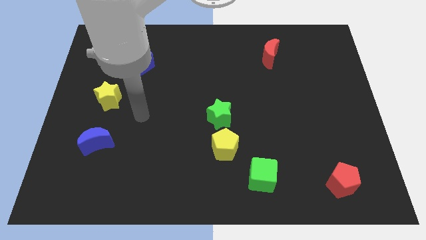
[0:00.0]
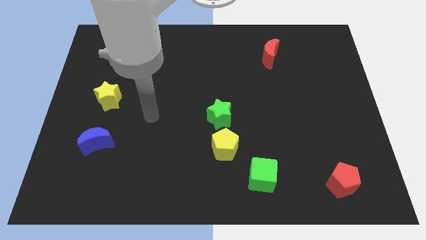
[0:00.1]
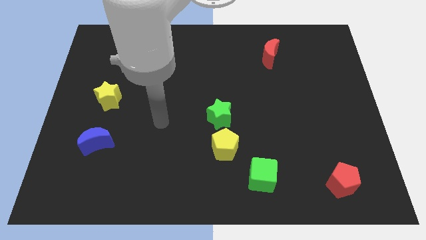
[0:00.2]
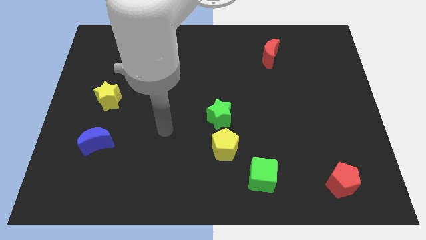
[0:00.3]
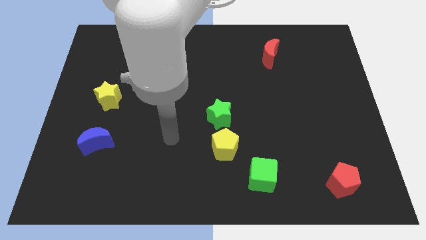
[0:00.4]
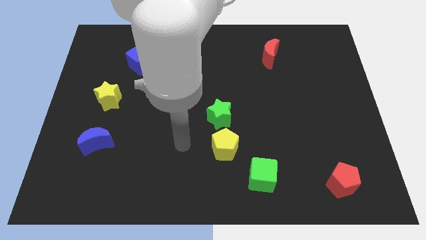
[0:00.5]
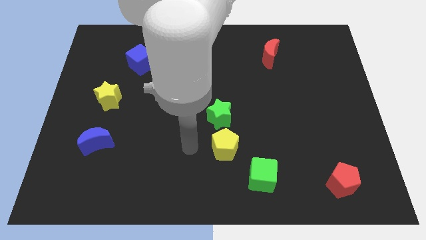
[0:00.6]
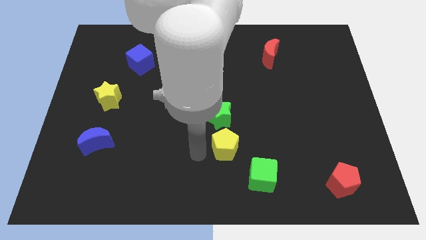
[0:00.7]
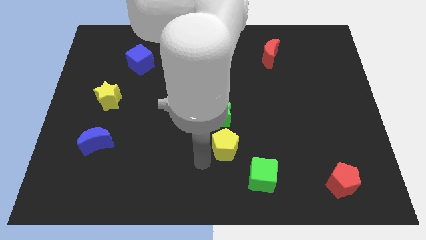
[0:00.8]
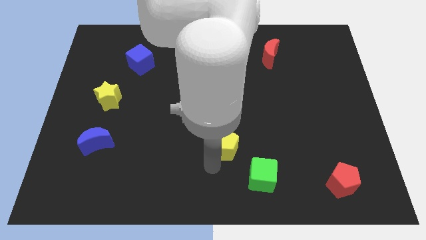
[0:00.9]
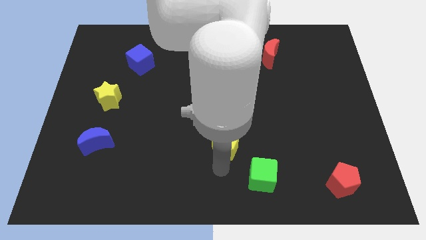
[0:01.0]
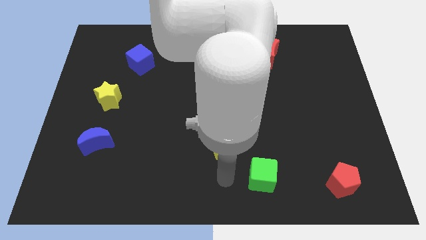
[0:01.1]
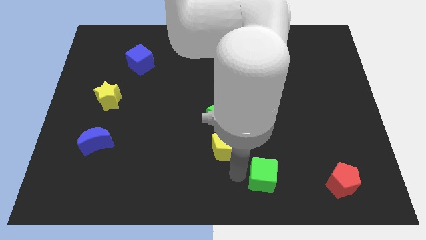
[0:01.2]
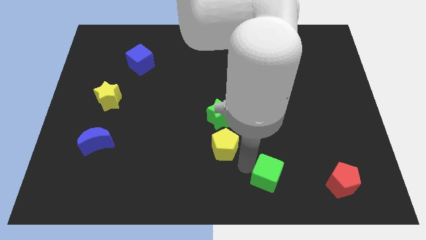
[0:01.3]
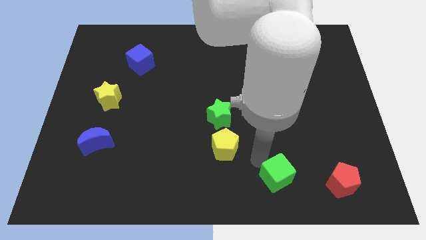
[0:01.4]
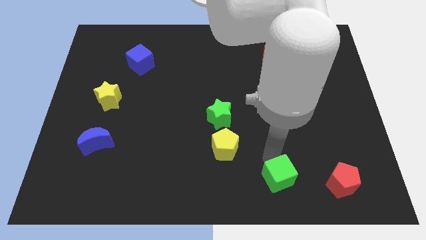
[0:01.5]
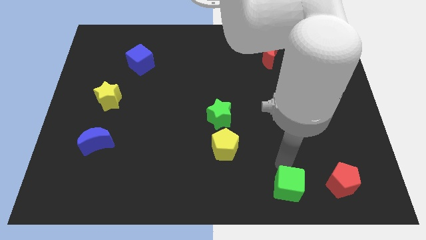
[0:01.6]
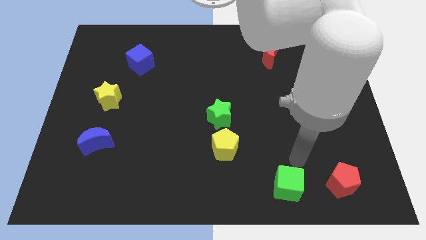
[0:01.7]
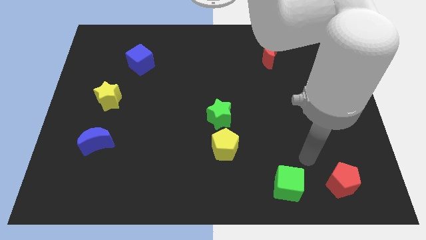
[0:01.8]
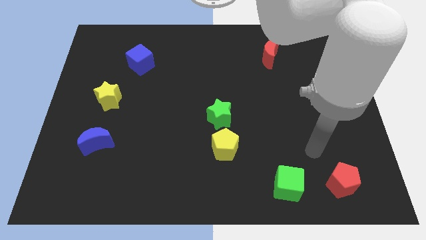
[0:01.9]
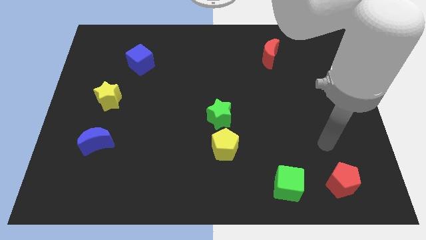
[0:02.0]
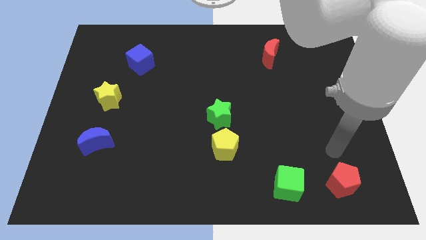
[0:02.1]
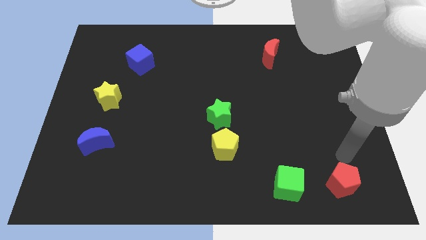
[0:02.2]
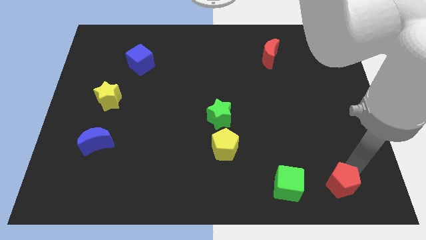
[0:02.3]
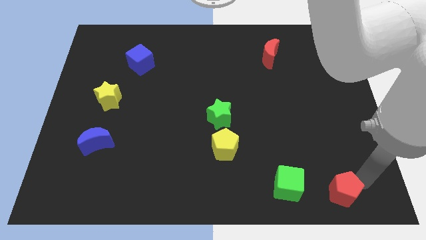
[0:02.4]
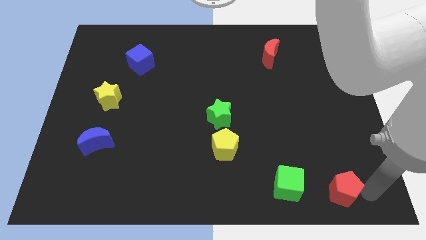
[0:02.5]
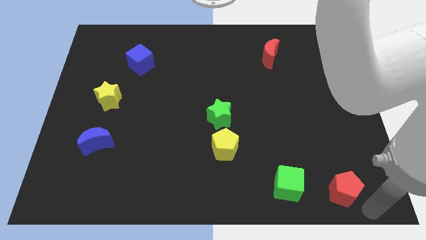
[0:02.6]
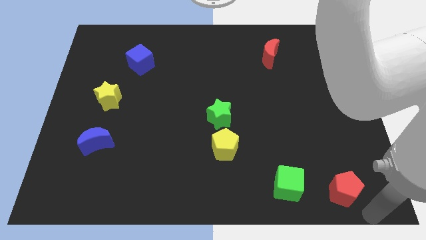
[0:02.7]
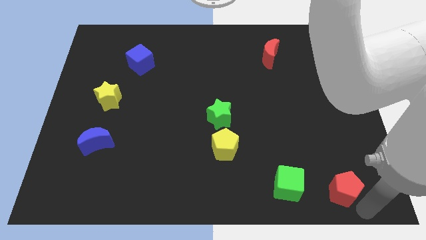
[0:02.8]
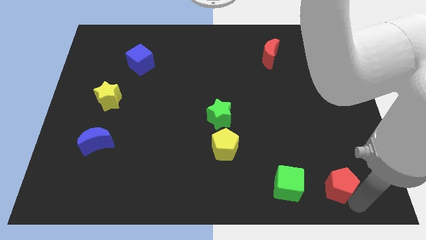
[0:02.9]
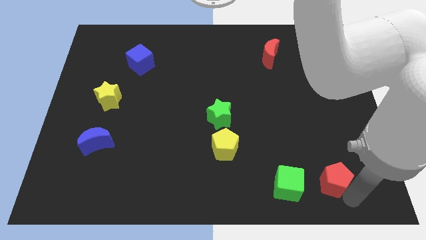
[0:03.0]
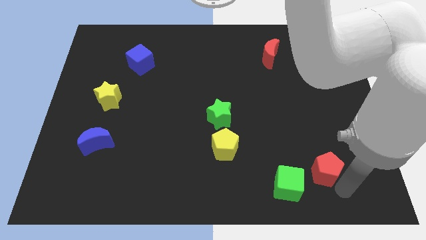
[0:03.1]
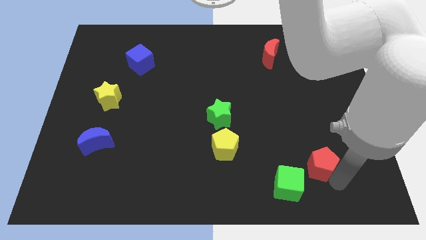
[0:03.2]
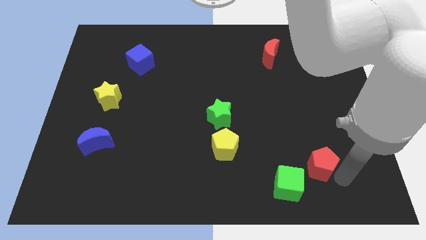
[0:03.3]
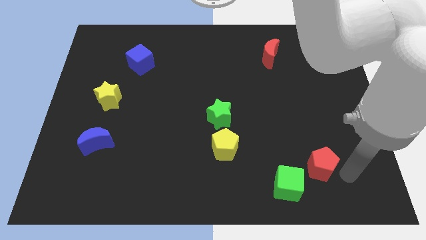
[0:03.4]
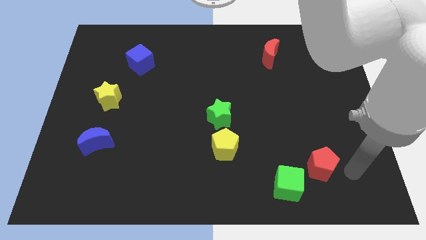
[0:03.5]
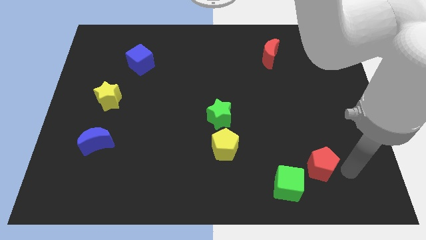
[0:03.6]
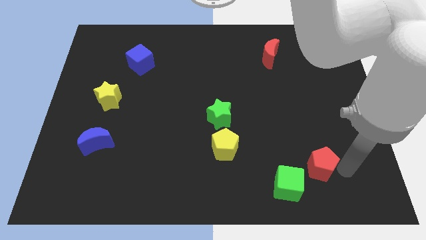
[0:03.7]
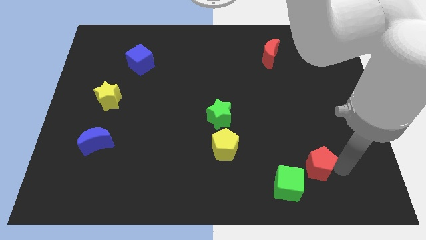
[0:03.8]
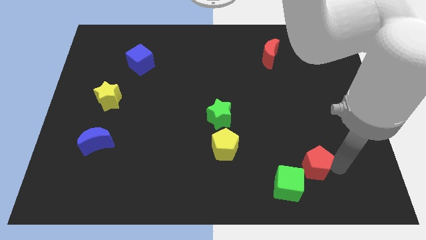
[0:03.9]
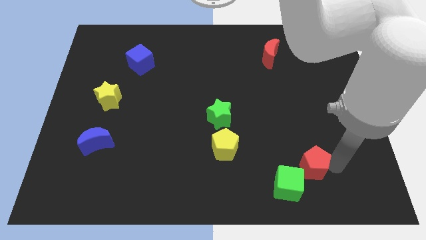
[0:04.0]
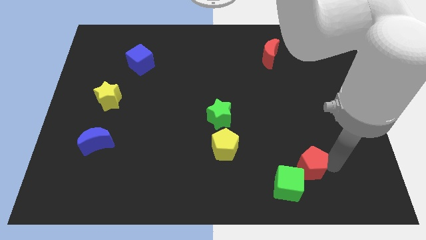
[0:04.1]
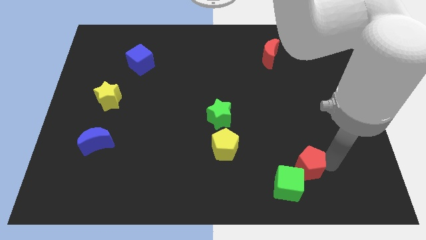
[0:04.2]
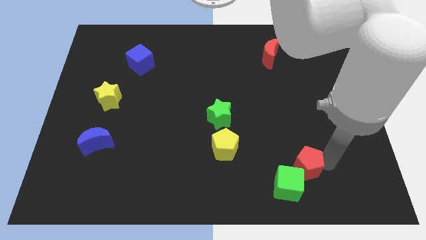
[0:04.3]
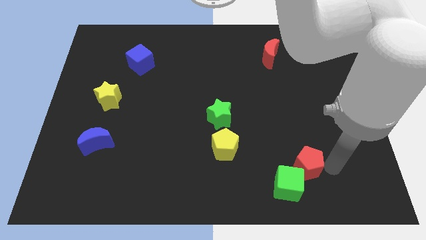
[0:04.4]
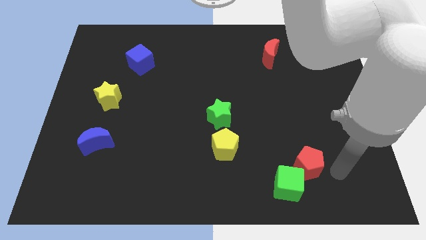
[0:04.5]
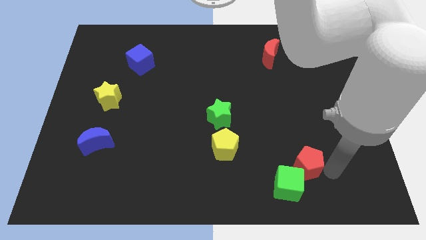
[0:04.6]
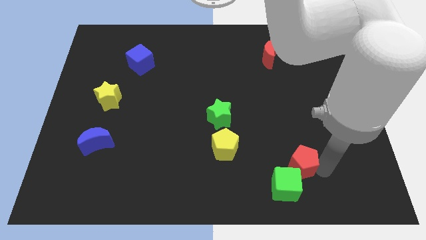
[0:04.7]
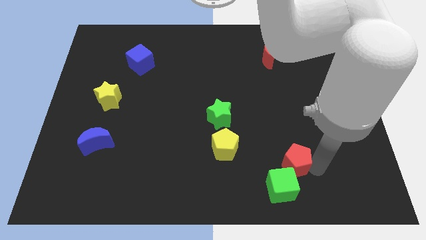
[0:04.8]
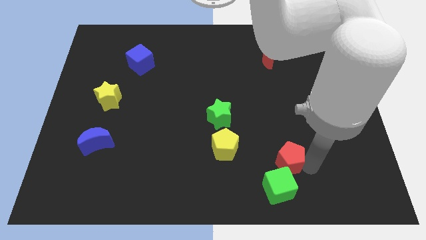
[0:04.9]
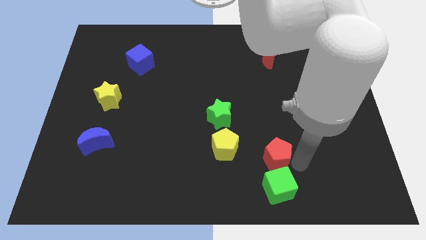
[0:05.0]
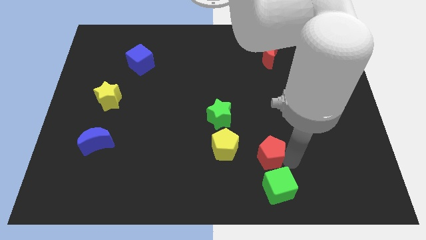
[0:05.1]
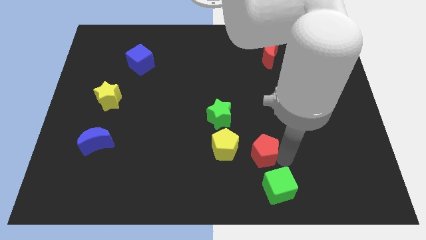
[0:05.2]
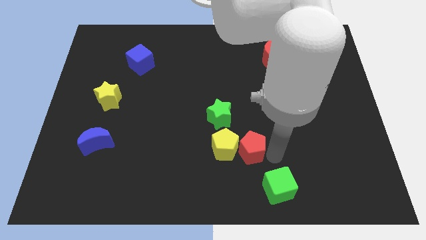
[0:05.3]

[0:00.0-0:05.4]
move the red pentagon to the yellow pentagon

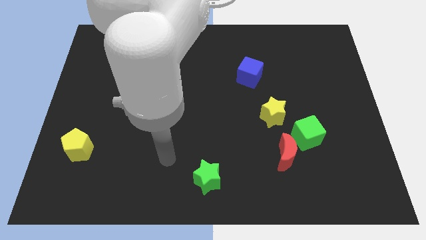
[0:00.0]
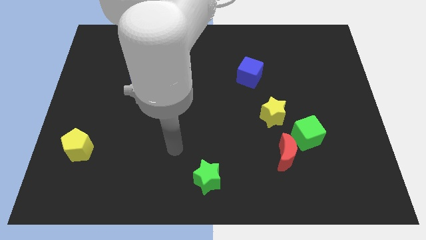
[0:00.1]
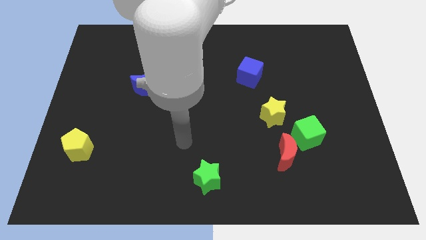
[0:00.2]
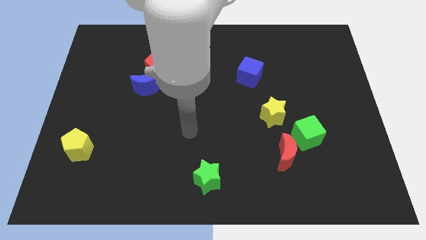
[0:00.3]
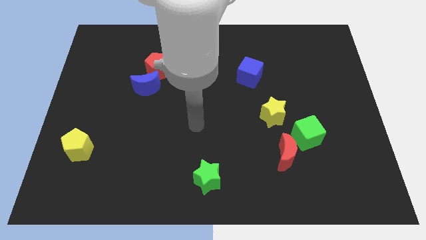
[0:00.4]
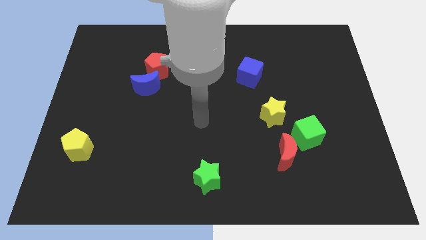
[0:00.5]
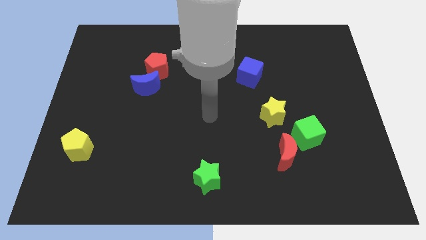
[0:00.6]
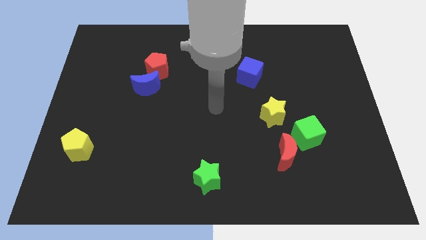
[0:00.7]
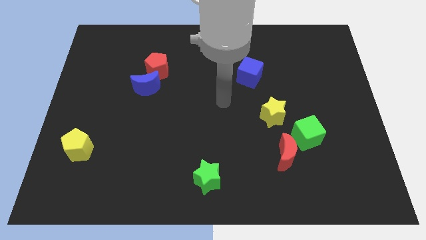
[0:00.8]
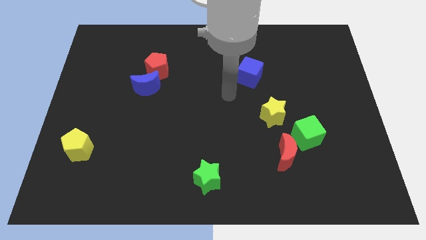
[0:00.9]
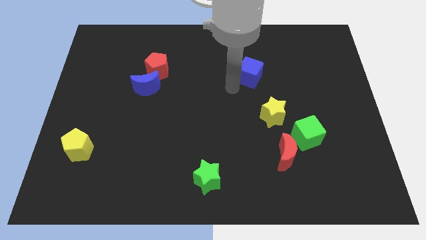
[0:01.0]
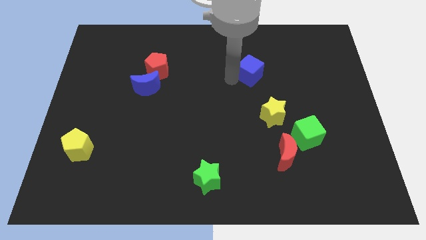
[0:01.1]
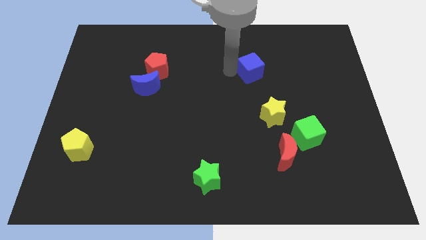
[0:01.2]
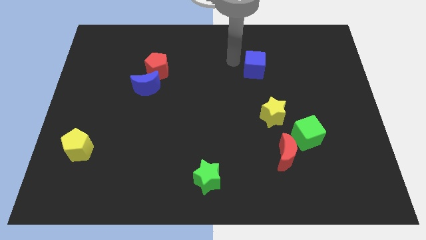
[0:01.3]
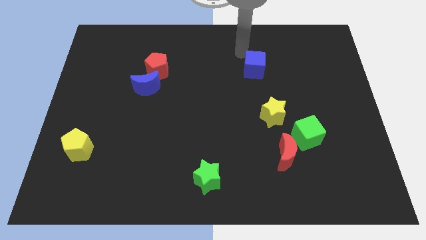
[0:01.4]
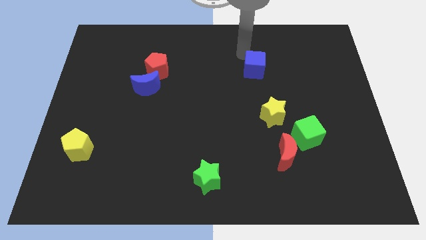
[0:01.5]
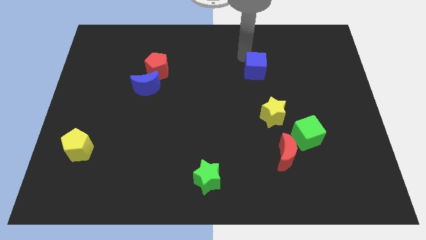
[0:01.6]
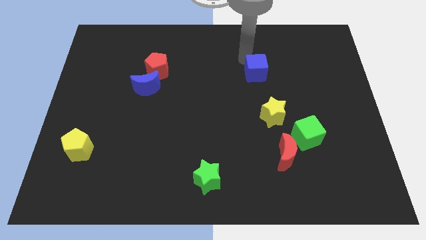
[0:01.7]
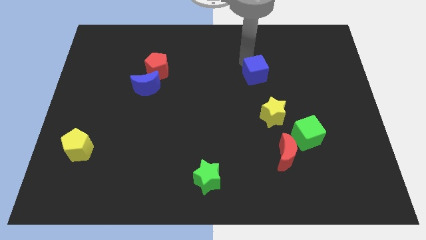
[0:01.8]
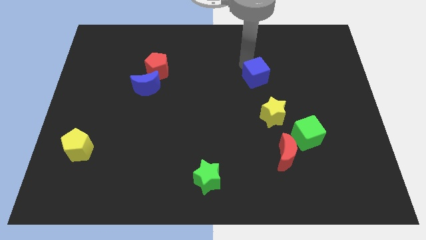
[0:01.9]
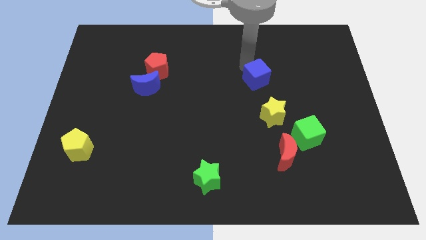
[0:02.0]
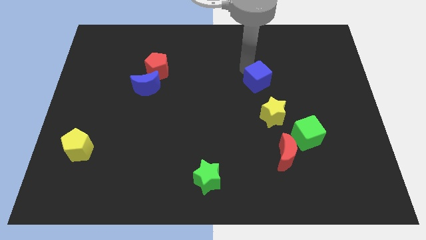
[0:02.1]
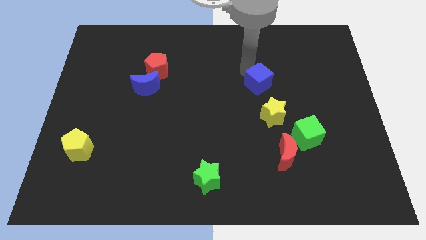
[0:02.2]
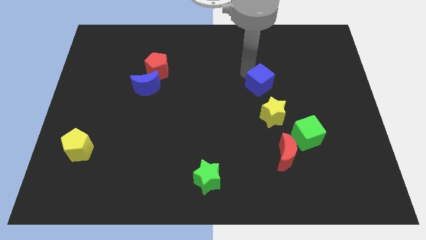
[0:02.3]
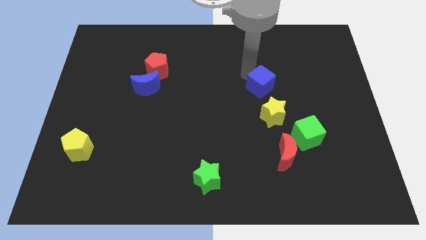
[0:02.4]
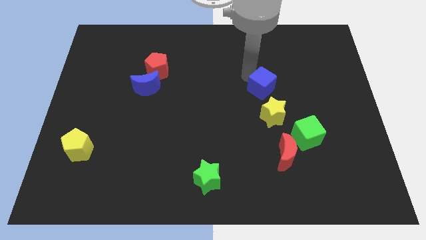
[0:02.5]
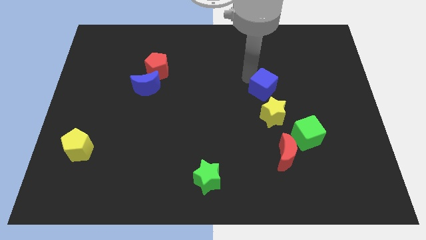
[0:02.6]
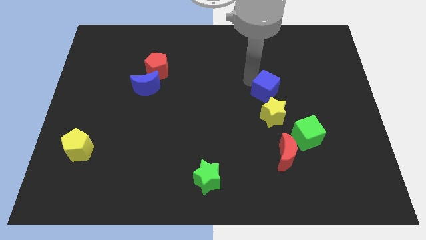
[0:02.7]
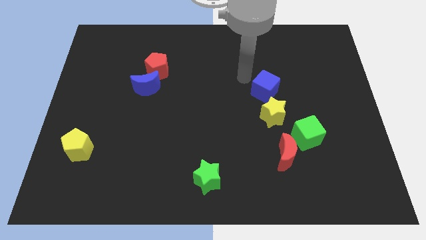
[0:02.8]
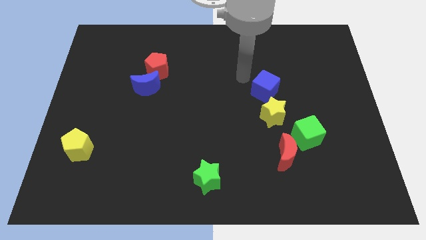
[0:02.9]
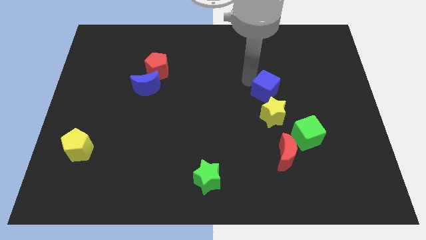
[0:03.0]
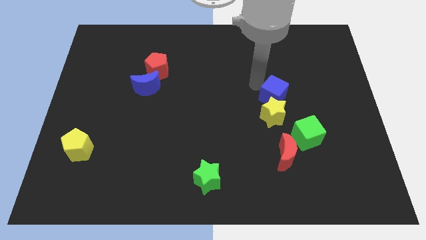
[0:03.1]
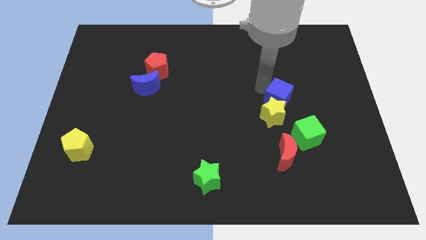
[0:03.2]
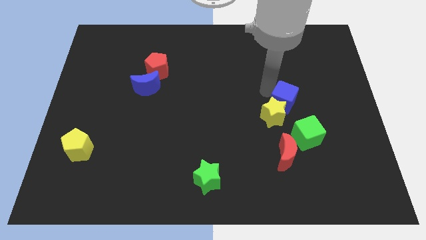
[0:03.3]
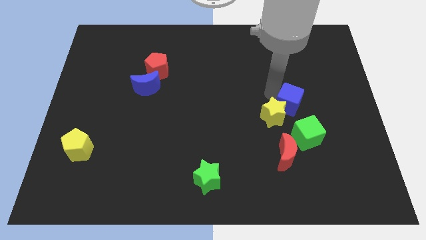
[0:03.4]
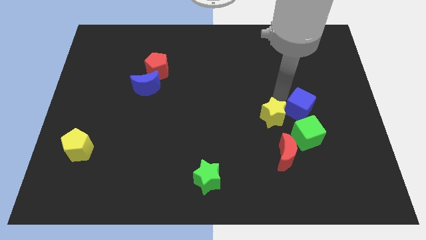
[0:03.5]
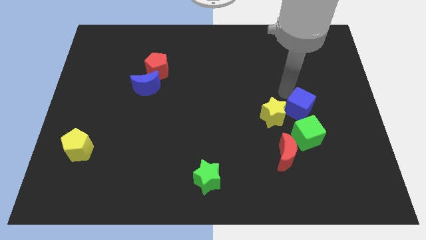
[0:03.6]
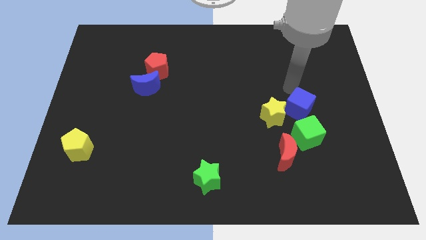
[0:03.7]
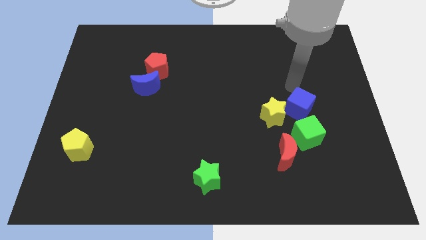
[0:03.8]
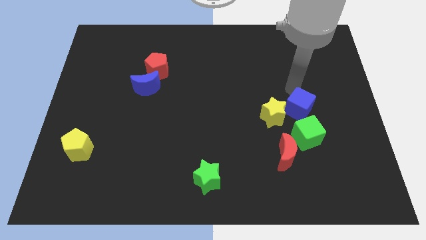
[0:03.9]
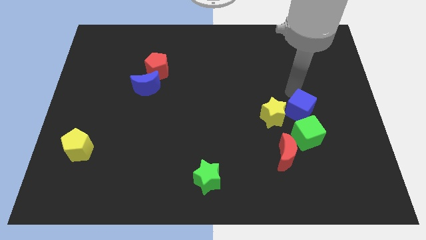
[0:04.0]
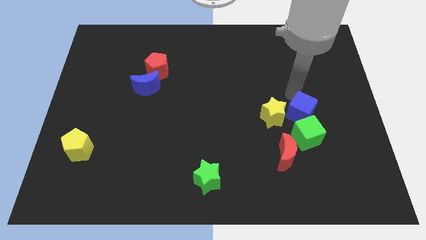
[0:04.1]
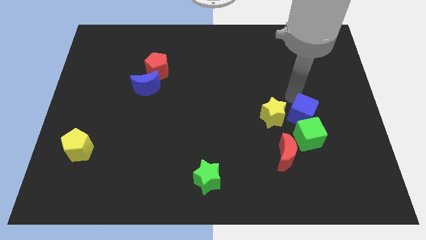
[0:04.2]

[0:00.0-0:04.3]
slide the blue cube to the green cube
